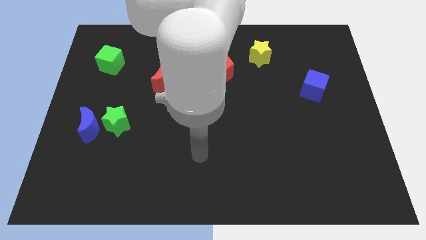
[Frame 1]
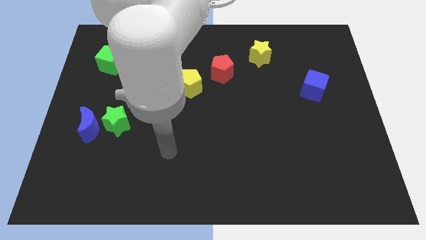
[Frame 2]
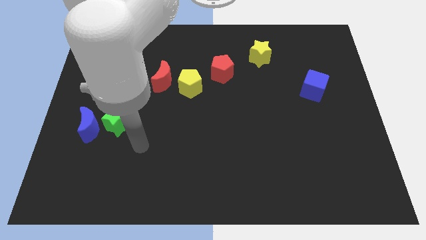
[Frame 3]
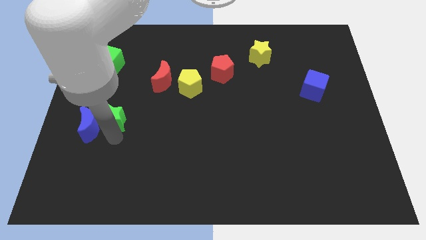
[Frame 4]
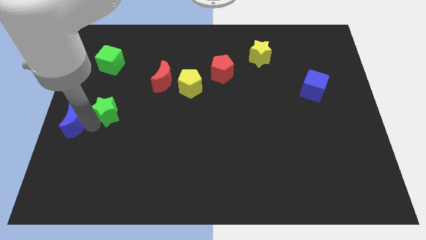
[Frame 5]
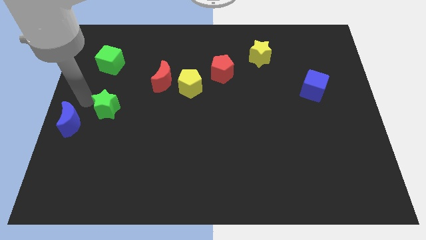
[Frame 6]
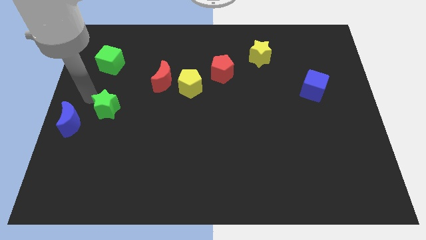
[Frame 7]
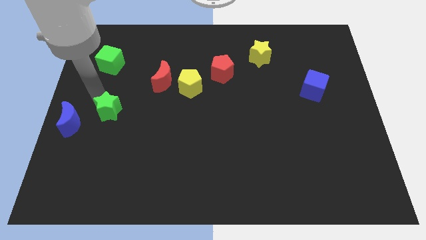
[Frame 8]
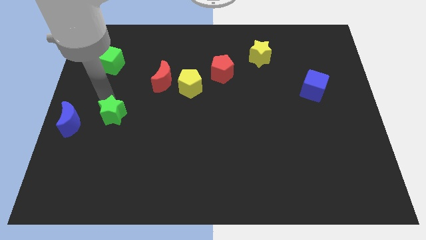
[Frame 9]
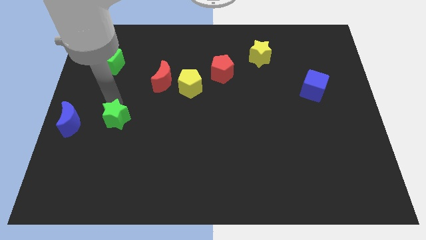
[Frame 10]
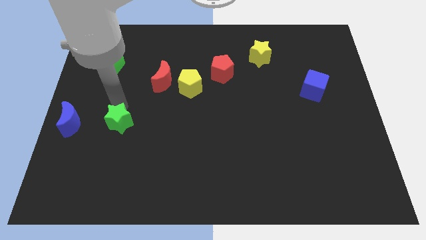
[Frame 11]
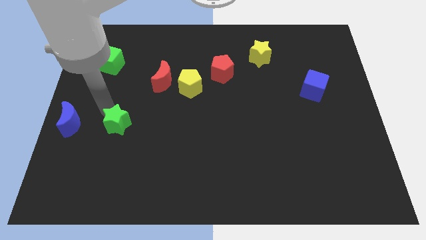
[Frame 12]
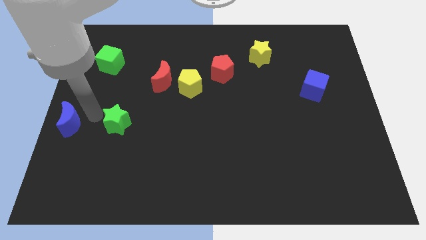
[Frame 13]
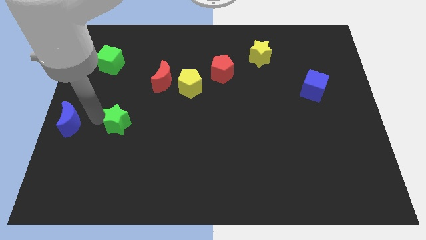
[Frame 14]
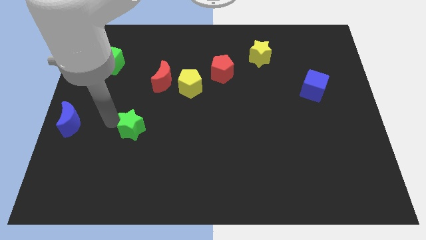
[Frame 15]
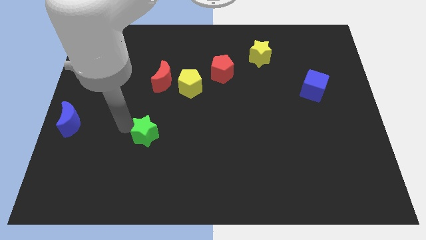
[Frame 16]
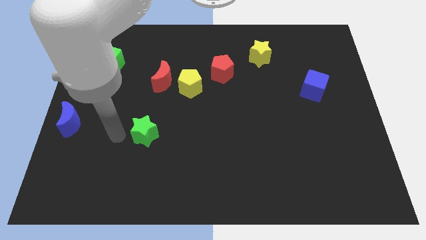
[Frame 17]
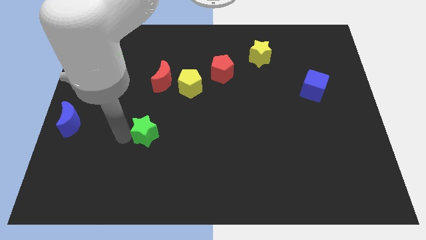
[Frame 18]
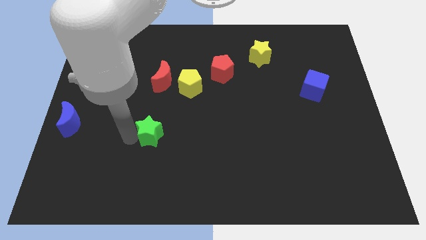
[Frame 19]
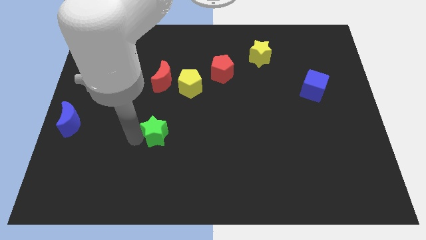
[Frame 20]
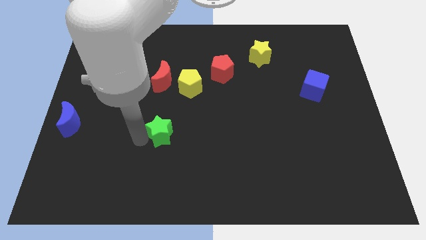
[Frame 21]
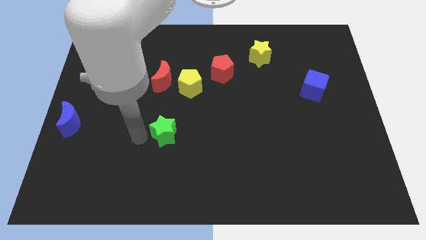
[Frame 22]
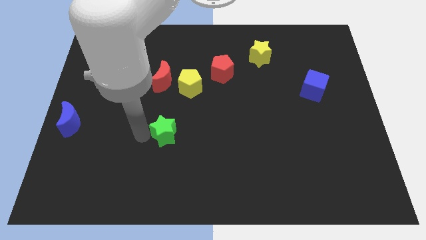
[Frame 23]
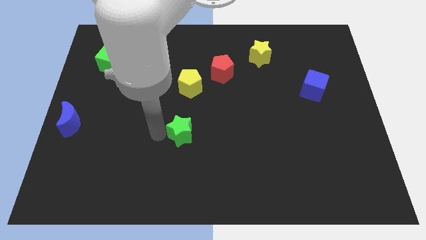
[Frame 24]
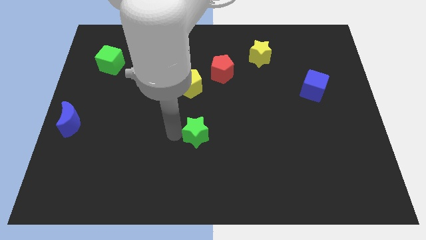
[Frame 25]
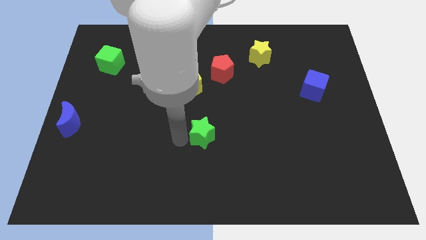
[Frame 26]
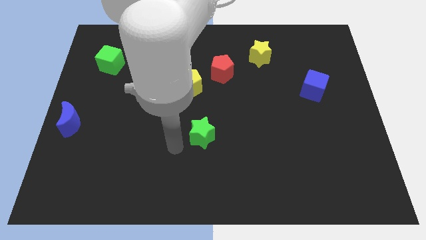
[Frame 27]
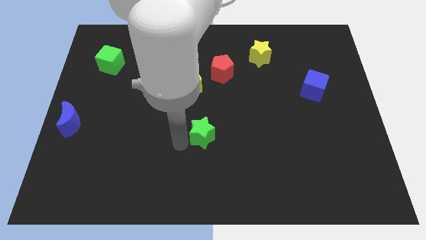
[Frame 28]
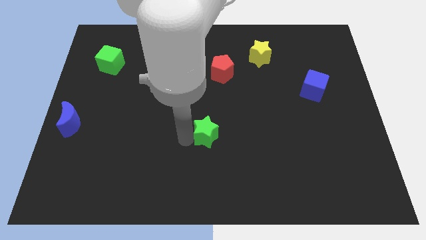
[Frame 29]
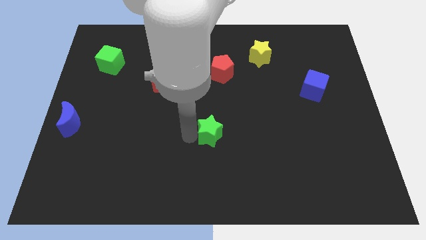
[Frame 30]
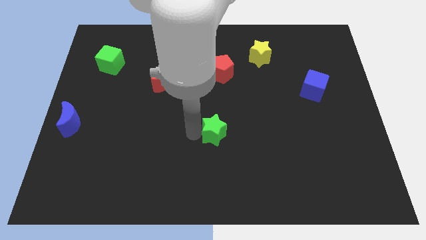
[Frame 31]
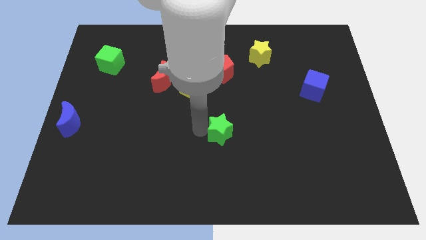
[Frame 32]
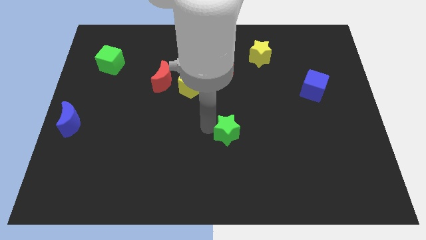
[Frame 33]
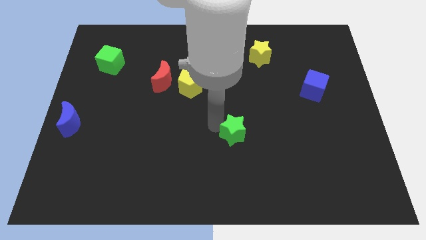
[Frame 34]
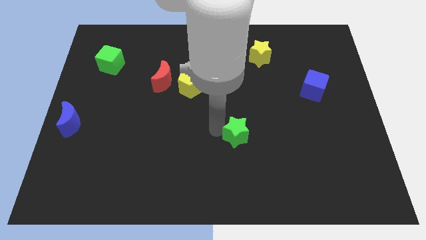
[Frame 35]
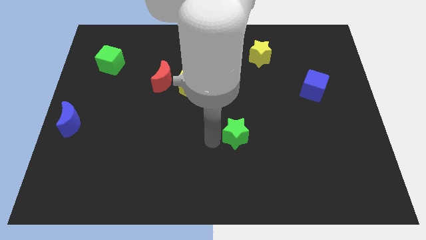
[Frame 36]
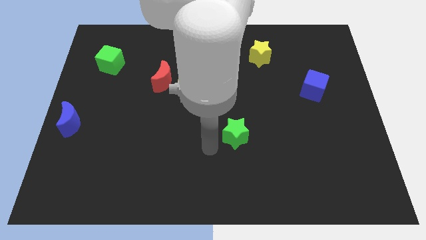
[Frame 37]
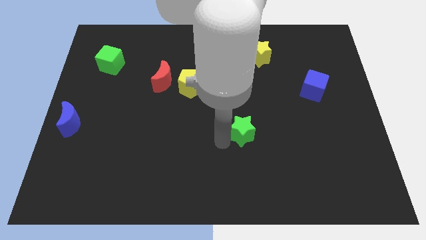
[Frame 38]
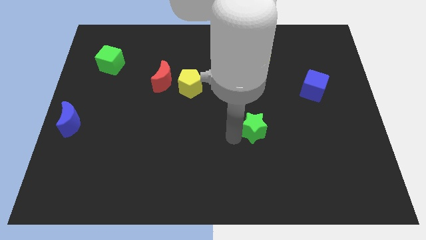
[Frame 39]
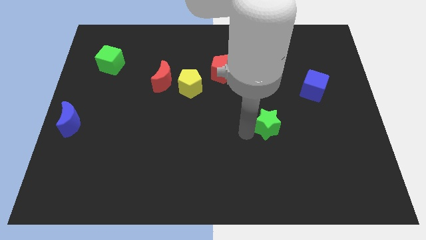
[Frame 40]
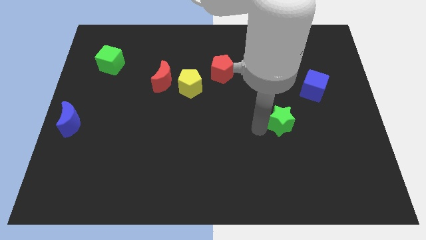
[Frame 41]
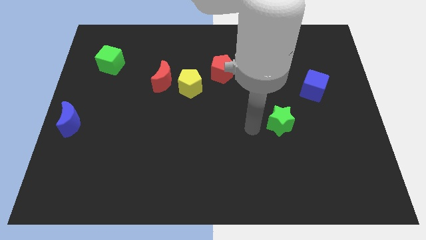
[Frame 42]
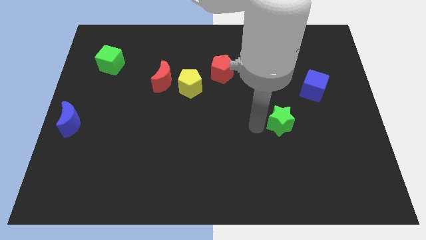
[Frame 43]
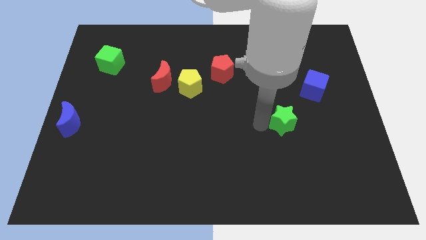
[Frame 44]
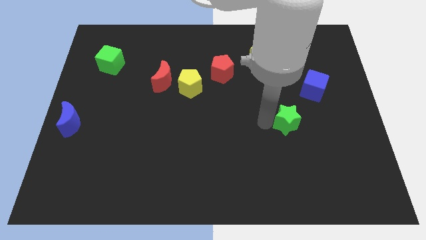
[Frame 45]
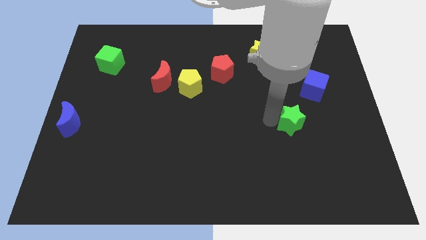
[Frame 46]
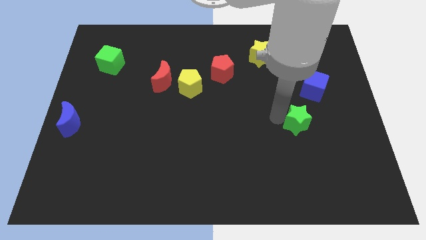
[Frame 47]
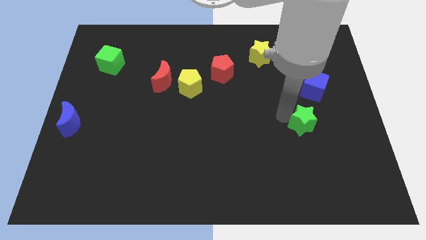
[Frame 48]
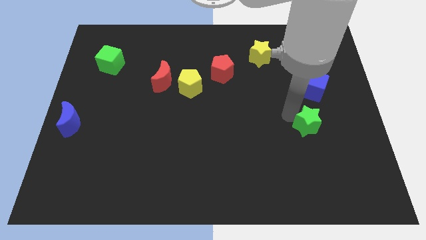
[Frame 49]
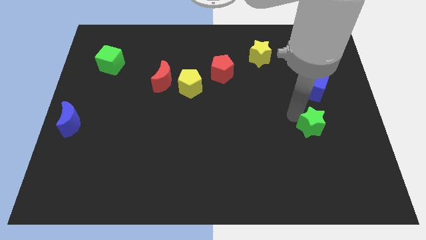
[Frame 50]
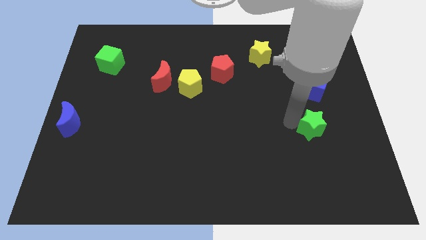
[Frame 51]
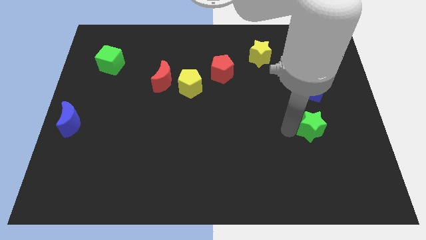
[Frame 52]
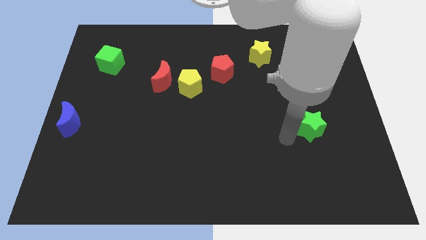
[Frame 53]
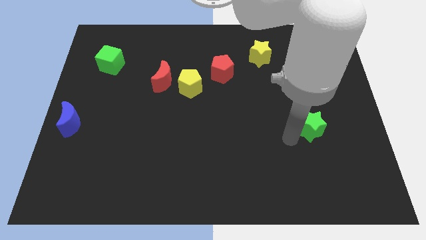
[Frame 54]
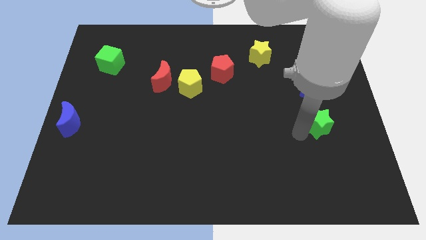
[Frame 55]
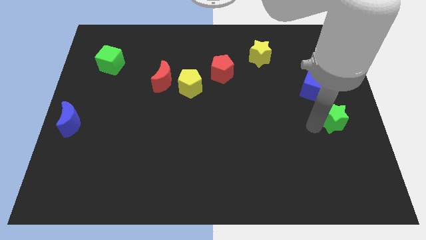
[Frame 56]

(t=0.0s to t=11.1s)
move the green star to the center right
